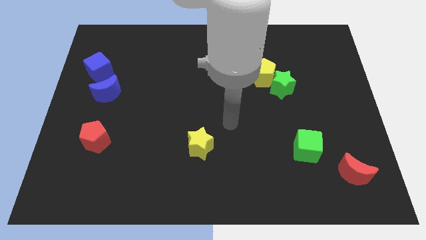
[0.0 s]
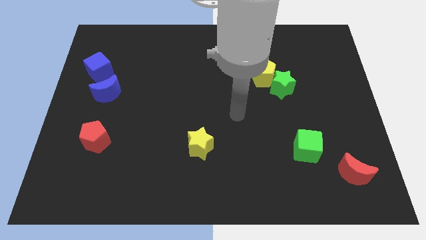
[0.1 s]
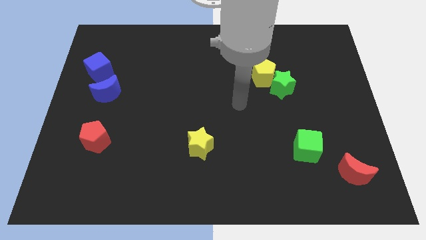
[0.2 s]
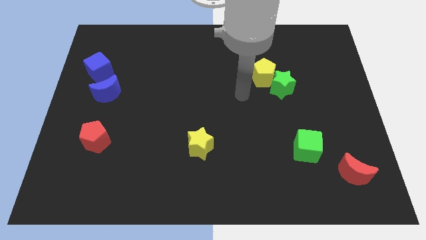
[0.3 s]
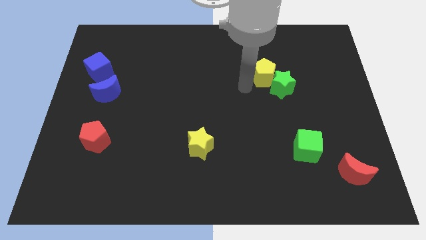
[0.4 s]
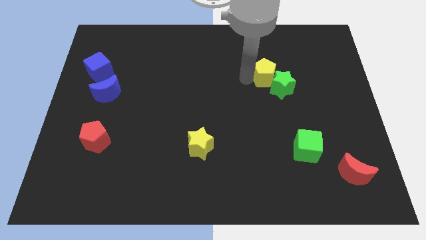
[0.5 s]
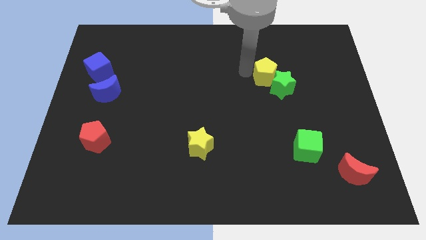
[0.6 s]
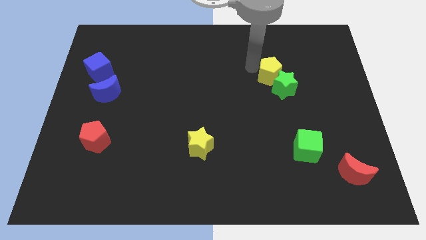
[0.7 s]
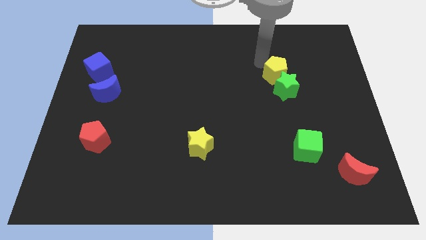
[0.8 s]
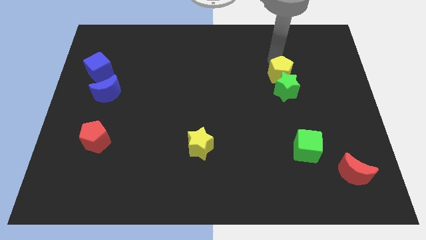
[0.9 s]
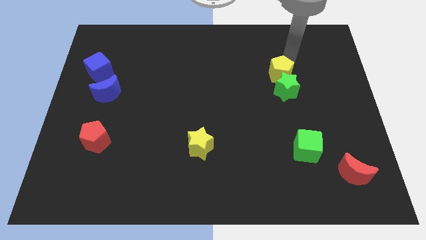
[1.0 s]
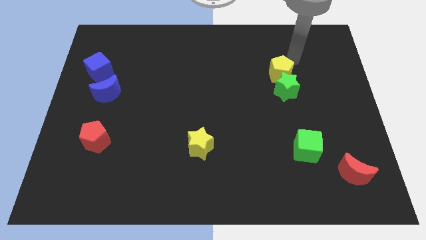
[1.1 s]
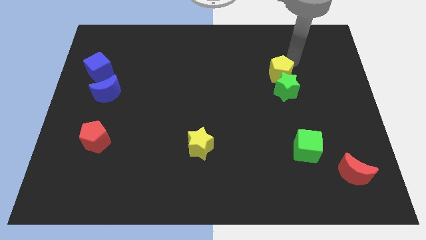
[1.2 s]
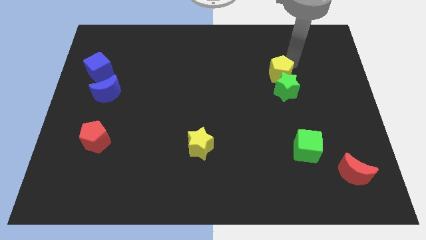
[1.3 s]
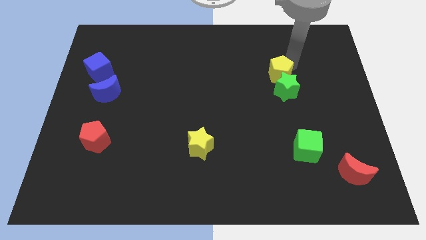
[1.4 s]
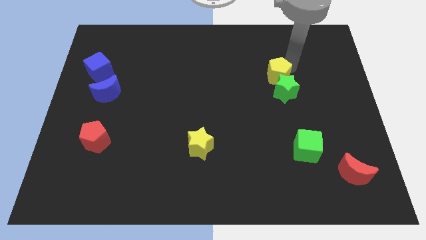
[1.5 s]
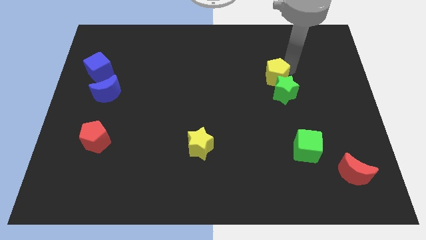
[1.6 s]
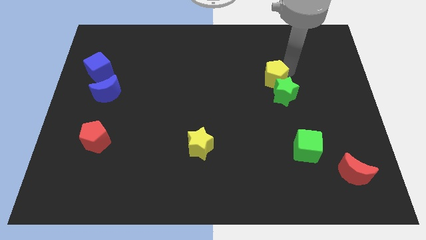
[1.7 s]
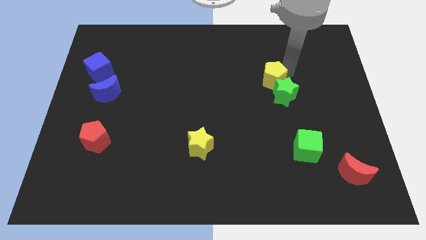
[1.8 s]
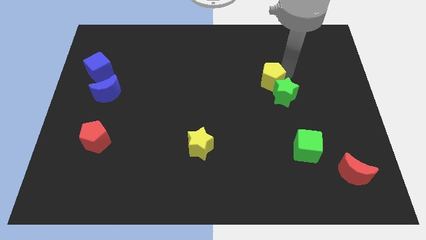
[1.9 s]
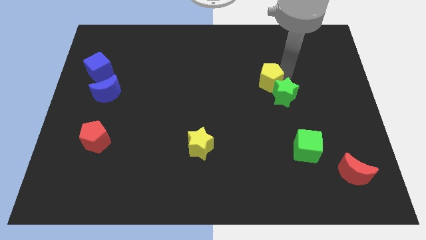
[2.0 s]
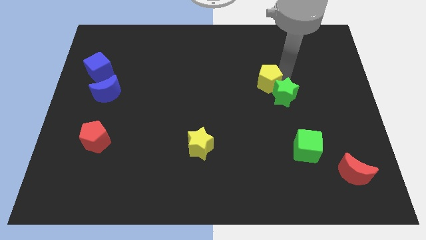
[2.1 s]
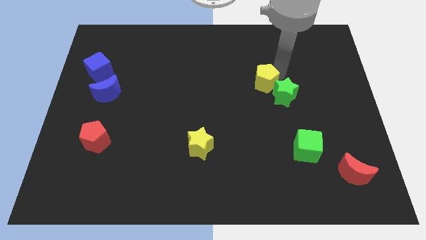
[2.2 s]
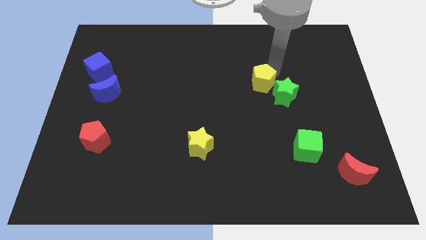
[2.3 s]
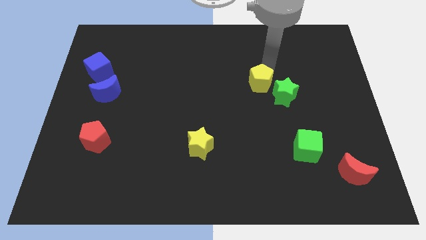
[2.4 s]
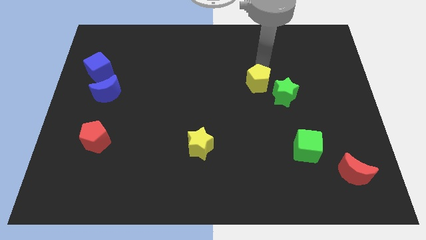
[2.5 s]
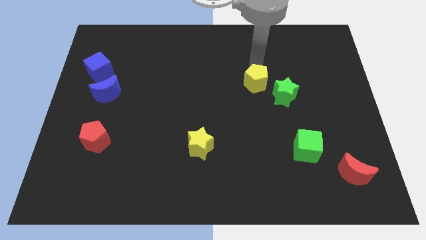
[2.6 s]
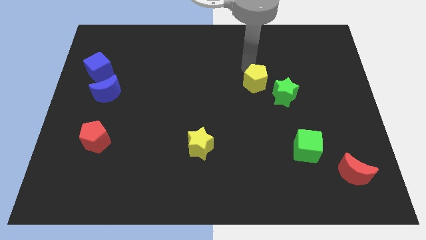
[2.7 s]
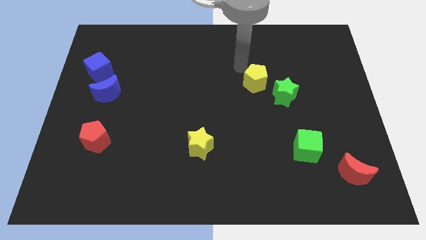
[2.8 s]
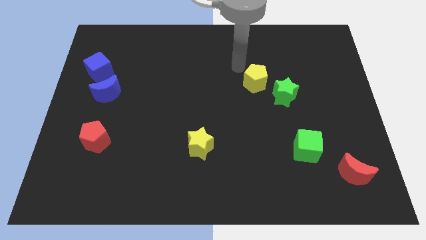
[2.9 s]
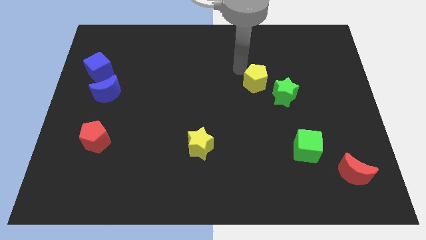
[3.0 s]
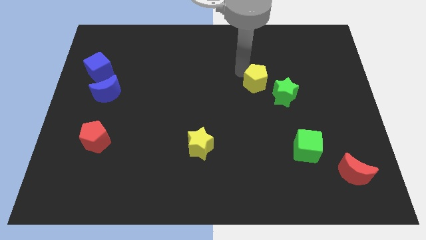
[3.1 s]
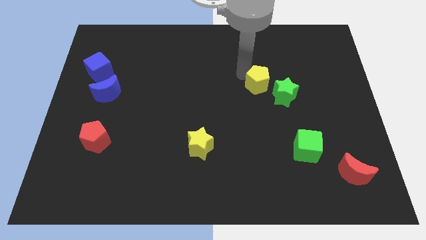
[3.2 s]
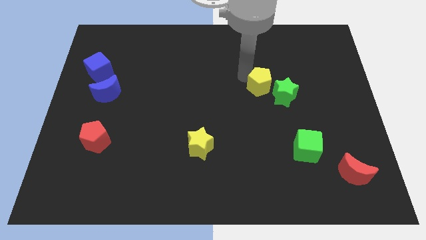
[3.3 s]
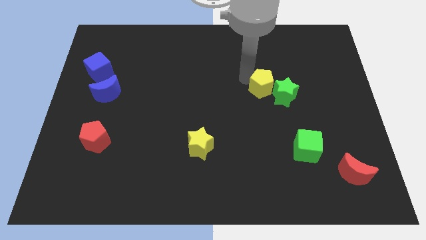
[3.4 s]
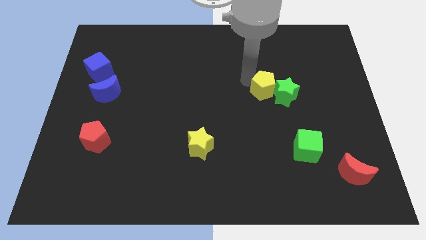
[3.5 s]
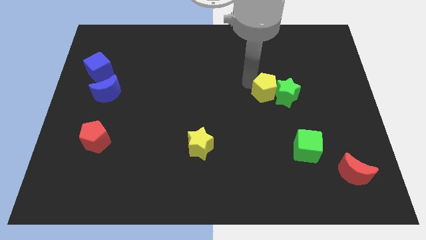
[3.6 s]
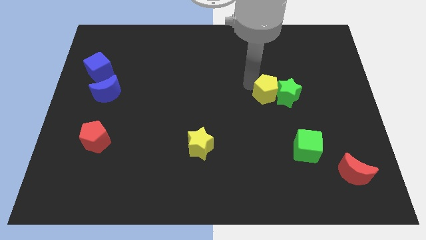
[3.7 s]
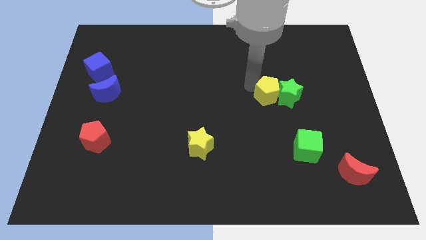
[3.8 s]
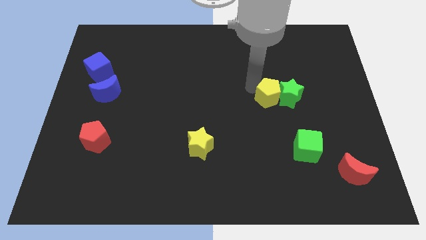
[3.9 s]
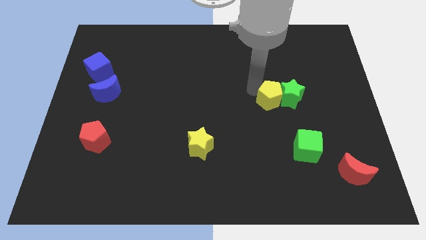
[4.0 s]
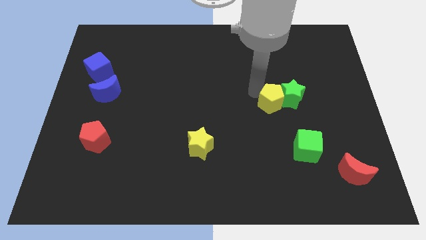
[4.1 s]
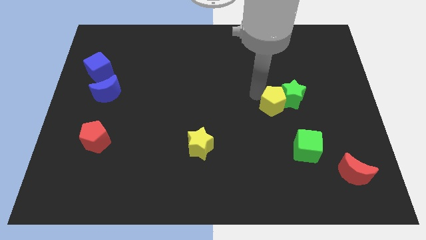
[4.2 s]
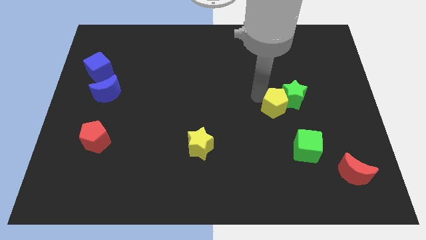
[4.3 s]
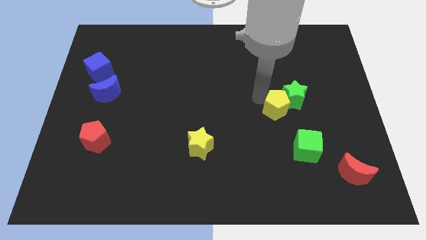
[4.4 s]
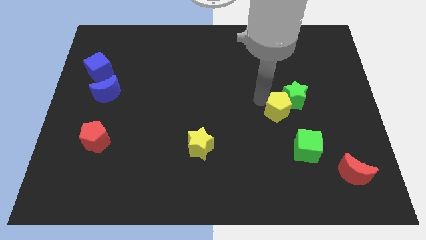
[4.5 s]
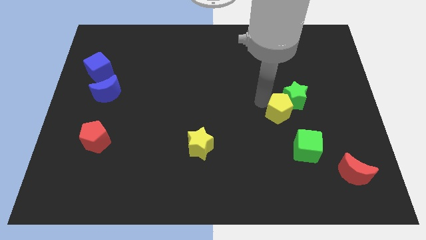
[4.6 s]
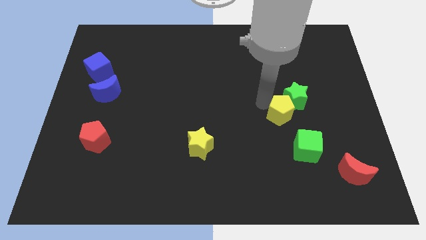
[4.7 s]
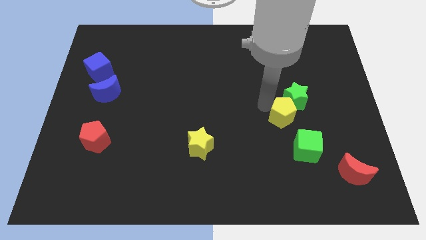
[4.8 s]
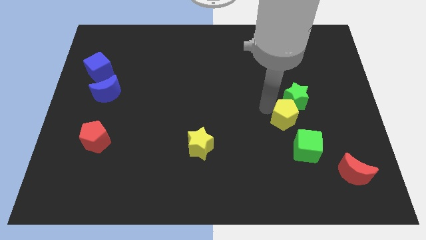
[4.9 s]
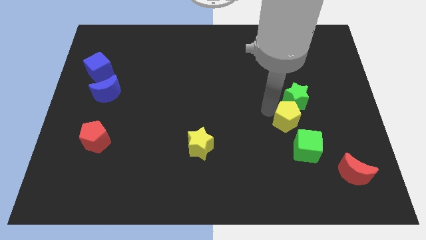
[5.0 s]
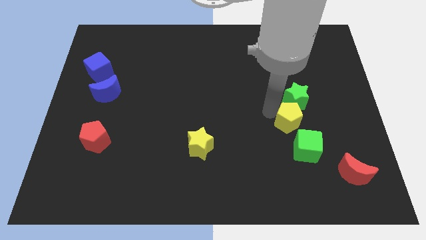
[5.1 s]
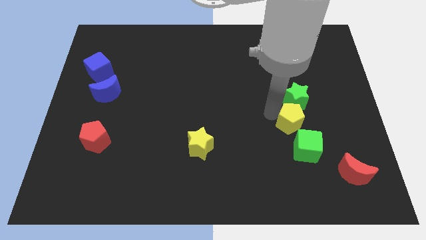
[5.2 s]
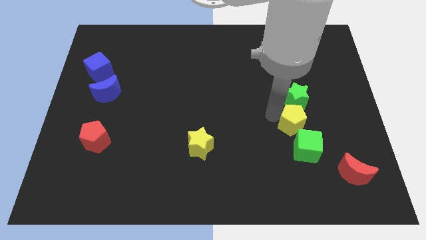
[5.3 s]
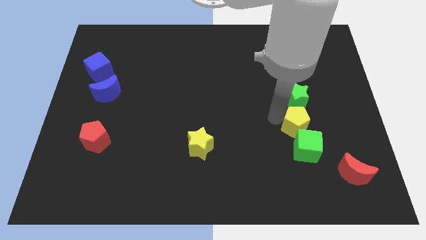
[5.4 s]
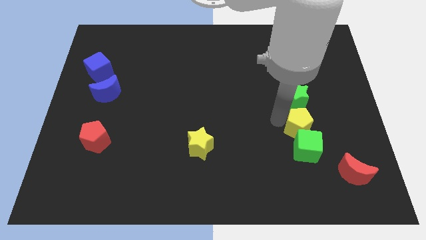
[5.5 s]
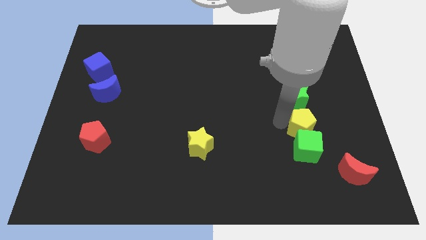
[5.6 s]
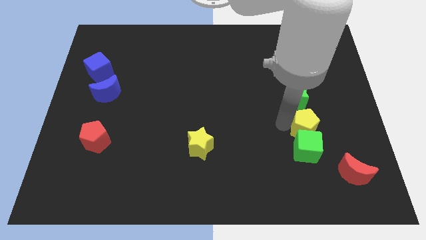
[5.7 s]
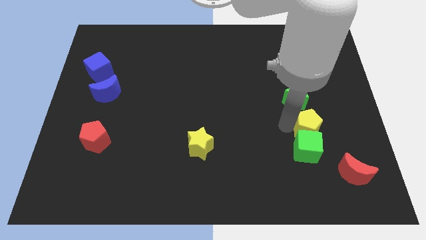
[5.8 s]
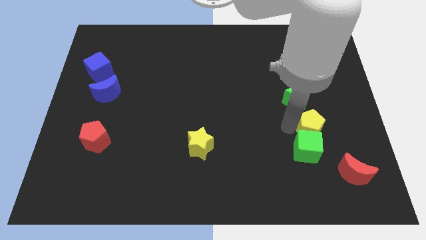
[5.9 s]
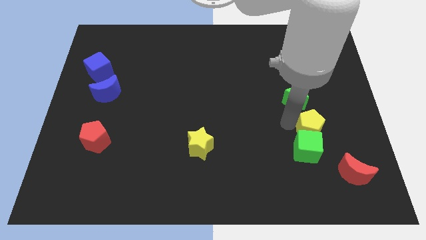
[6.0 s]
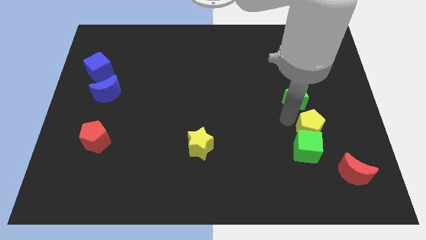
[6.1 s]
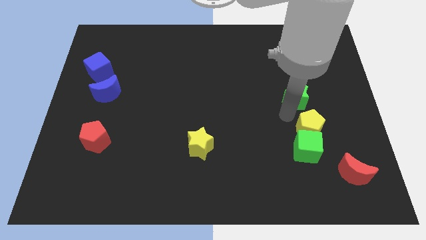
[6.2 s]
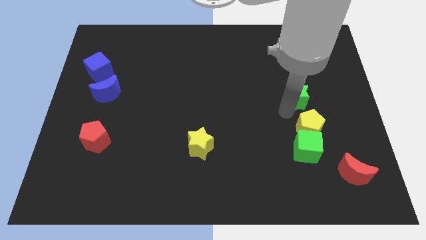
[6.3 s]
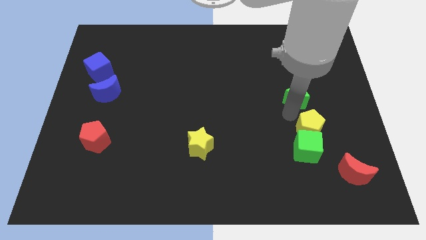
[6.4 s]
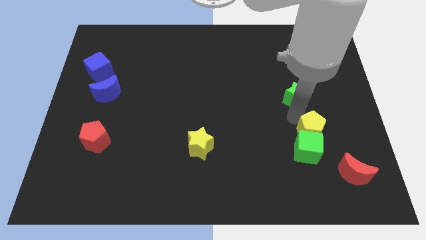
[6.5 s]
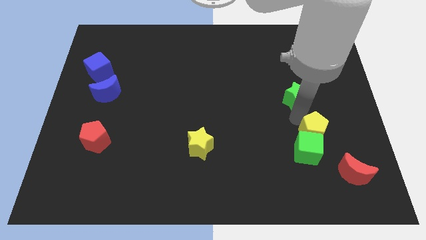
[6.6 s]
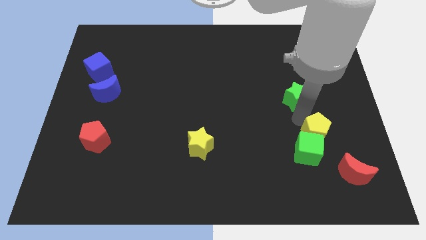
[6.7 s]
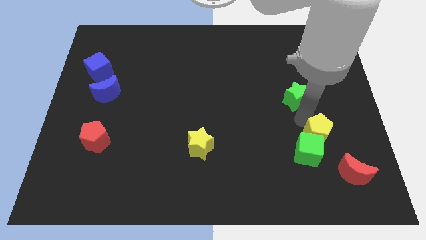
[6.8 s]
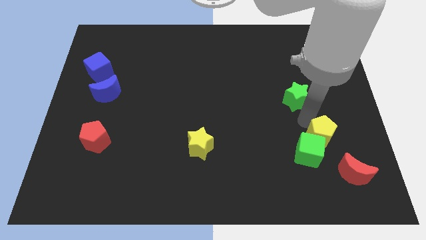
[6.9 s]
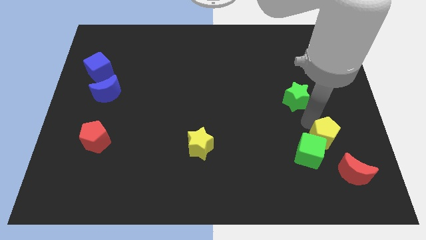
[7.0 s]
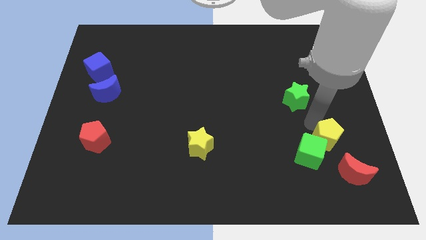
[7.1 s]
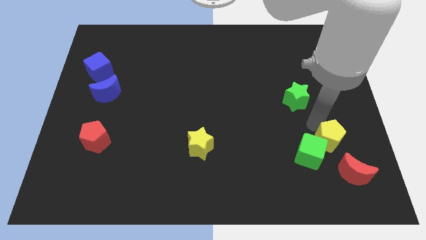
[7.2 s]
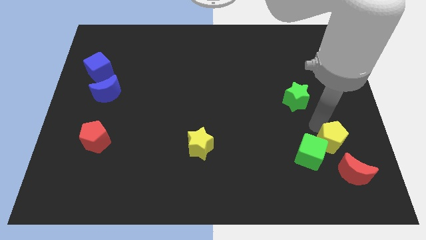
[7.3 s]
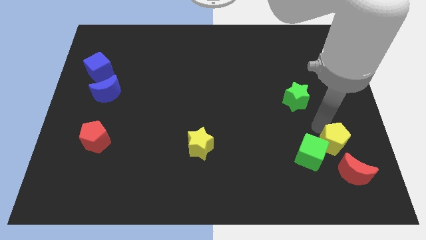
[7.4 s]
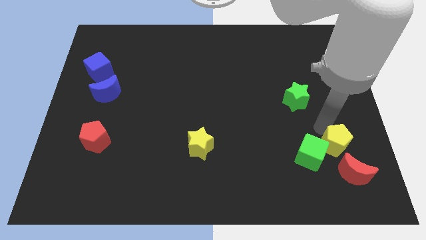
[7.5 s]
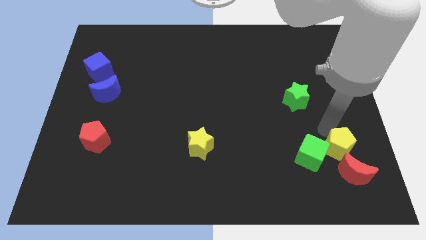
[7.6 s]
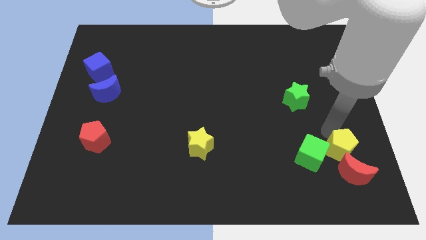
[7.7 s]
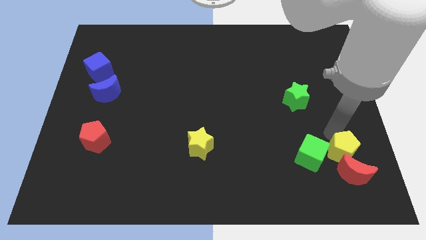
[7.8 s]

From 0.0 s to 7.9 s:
move the yellow pentagon towards the red moon
